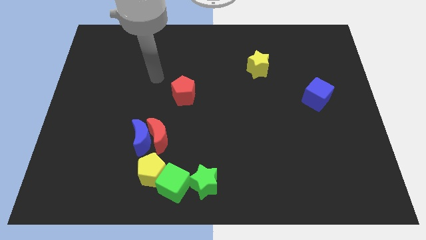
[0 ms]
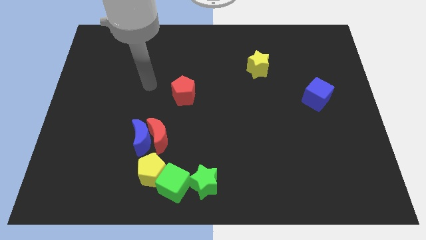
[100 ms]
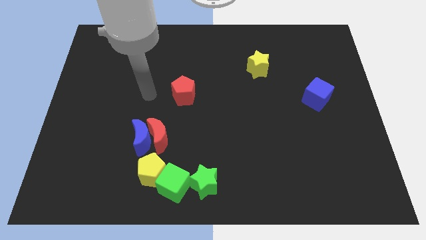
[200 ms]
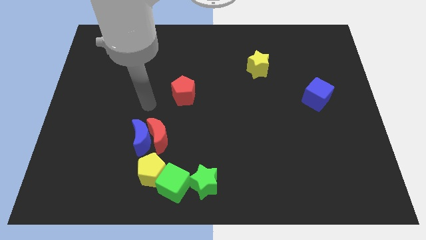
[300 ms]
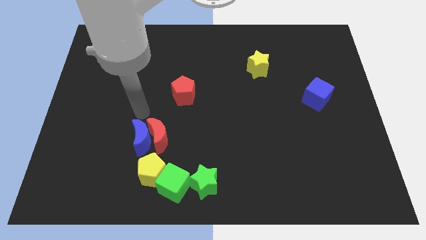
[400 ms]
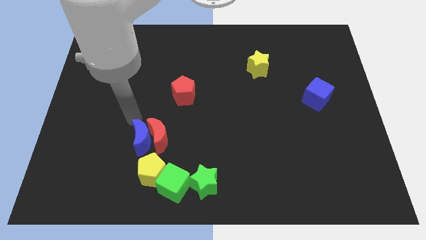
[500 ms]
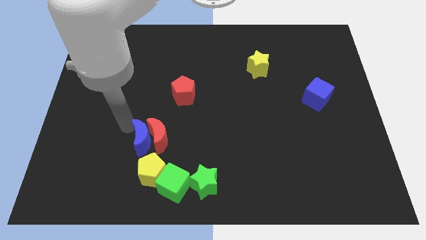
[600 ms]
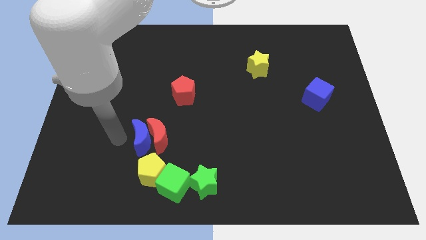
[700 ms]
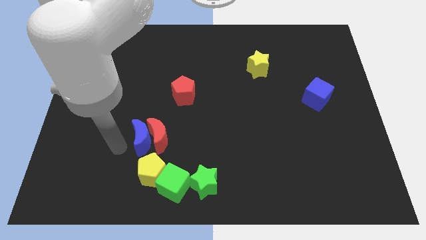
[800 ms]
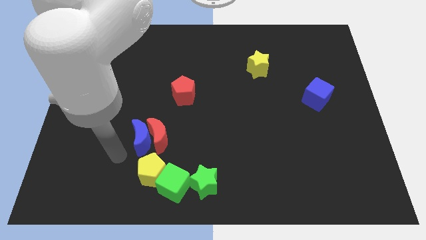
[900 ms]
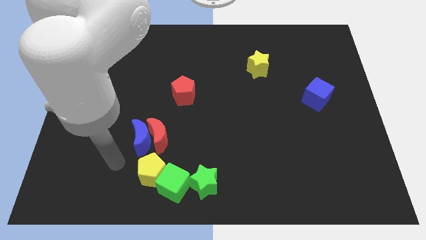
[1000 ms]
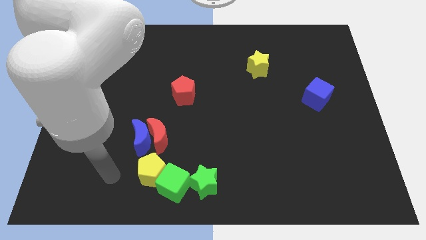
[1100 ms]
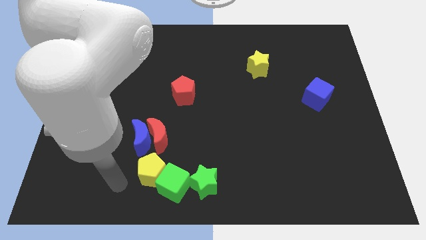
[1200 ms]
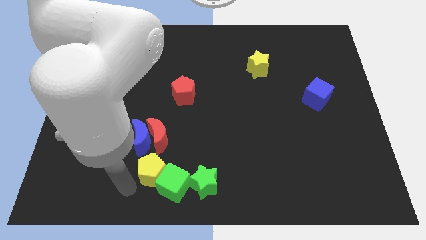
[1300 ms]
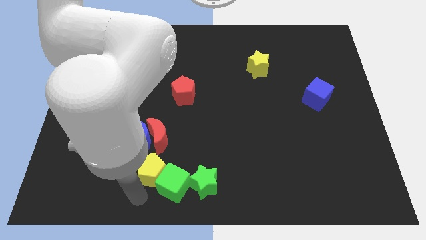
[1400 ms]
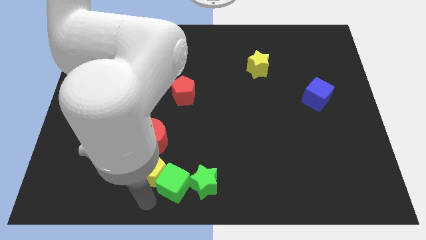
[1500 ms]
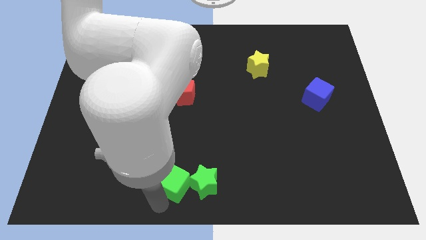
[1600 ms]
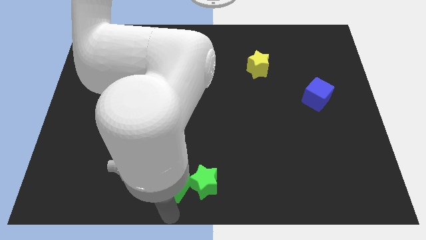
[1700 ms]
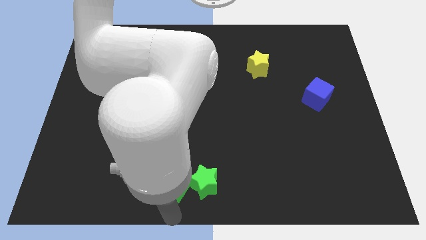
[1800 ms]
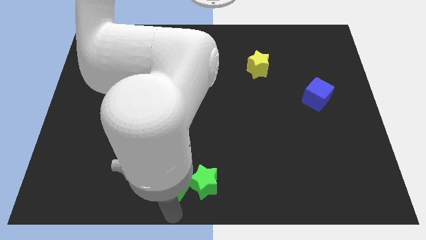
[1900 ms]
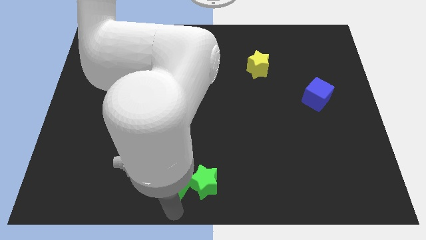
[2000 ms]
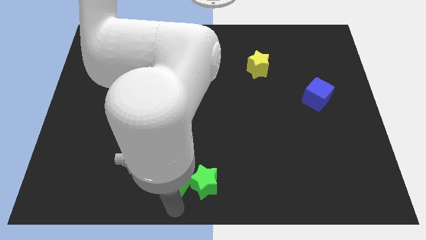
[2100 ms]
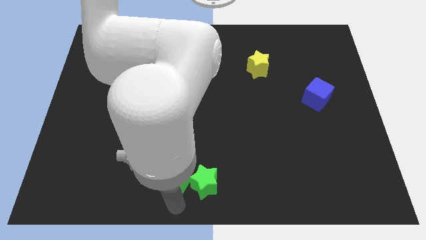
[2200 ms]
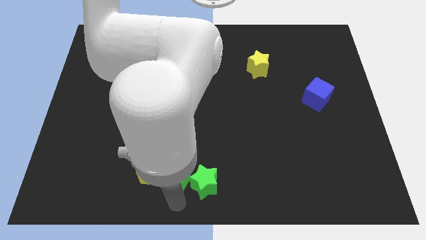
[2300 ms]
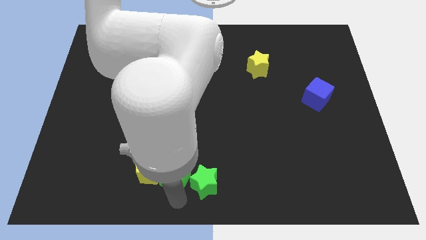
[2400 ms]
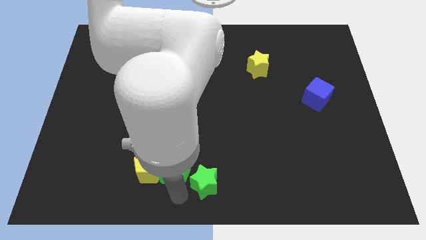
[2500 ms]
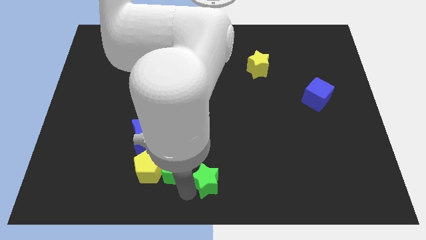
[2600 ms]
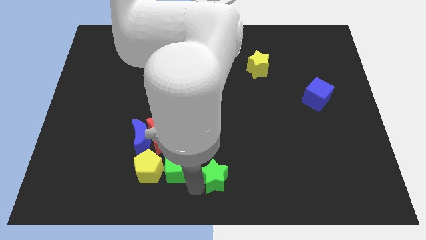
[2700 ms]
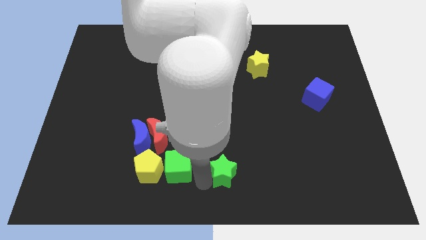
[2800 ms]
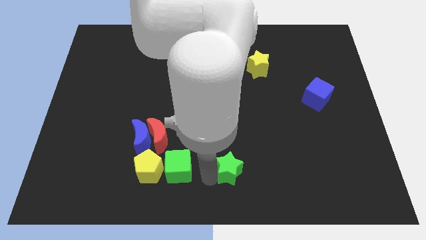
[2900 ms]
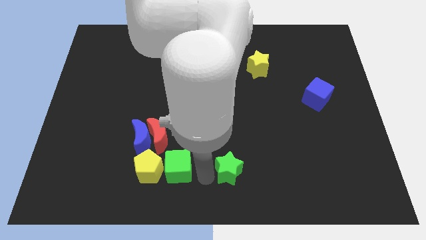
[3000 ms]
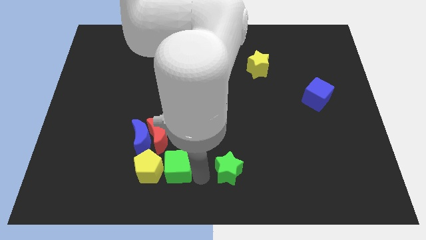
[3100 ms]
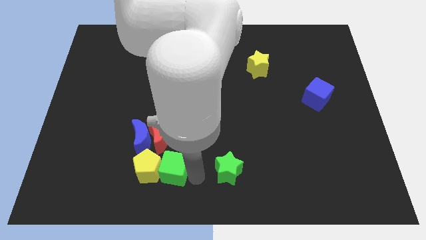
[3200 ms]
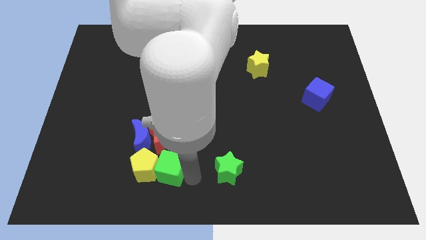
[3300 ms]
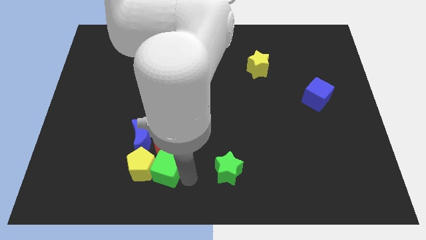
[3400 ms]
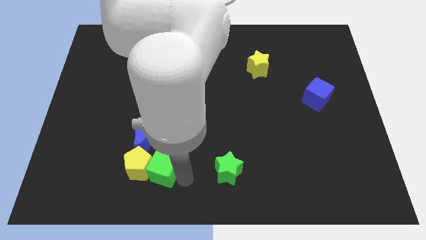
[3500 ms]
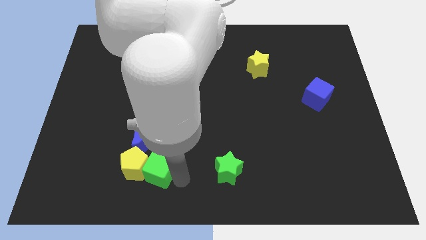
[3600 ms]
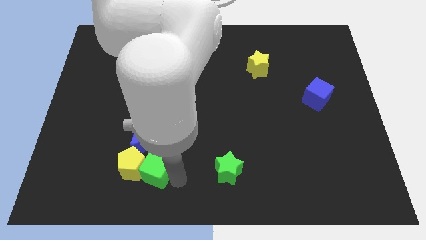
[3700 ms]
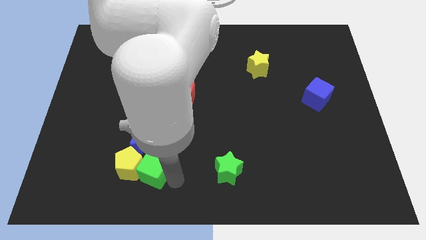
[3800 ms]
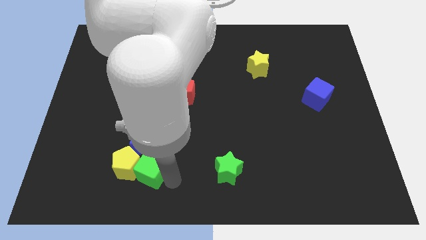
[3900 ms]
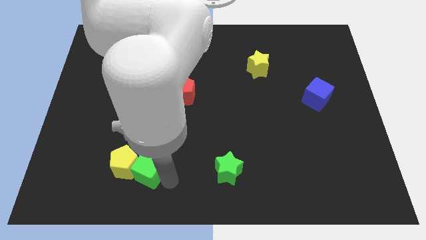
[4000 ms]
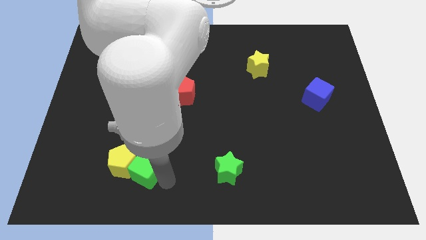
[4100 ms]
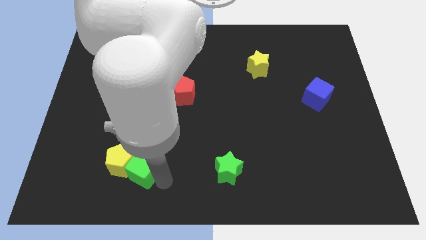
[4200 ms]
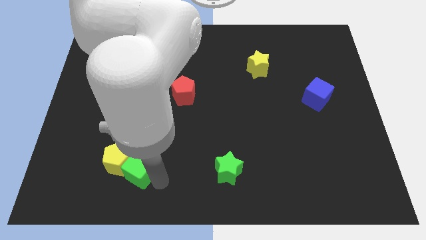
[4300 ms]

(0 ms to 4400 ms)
slightly push the green cube up and left diagonally

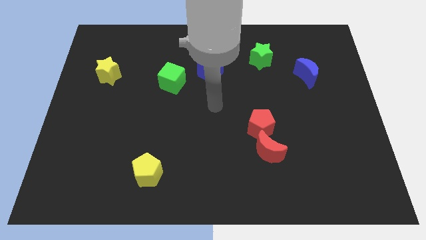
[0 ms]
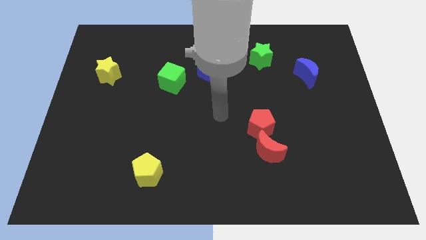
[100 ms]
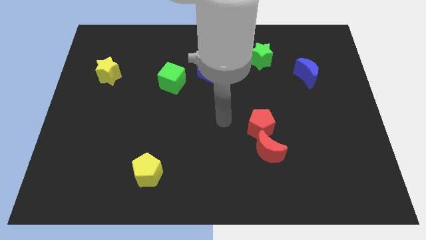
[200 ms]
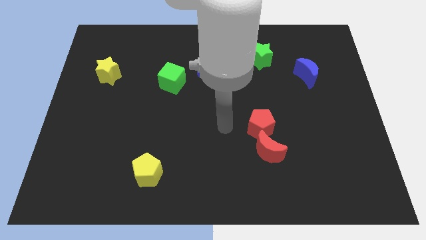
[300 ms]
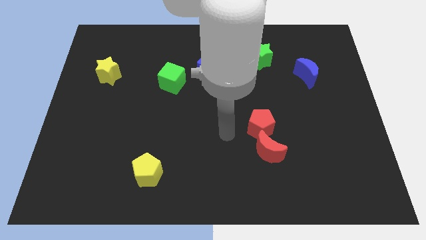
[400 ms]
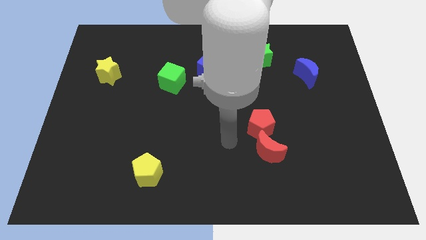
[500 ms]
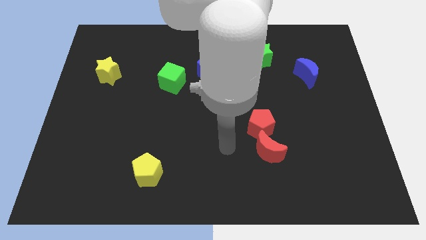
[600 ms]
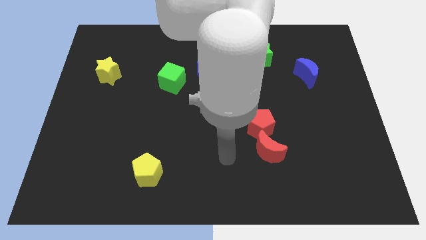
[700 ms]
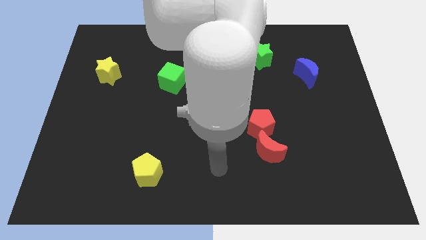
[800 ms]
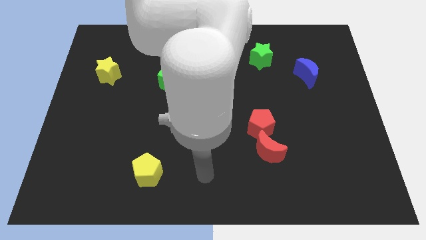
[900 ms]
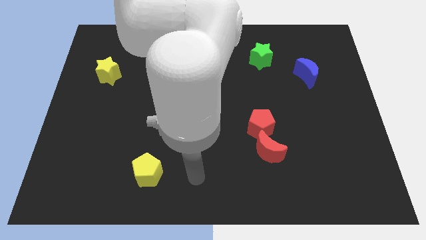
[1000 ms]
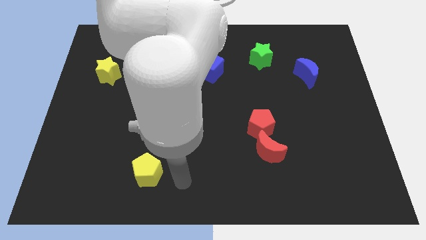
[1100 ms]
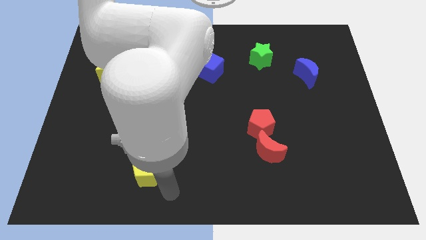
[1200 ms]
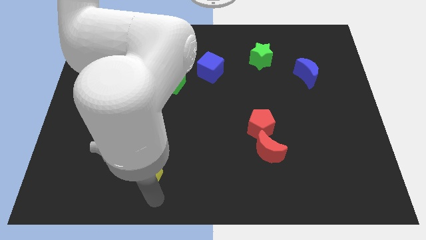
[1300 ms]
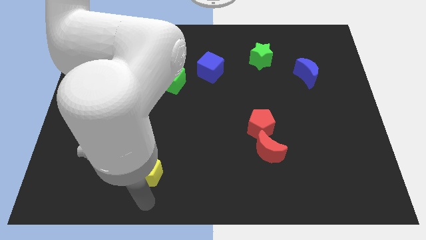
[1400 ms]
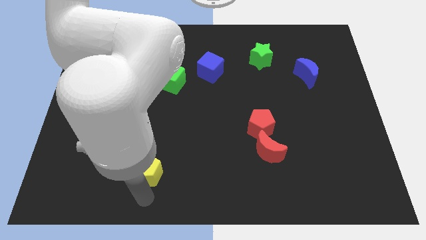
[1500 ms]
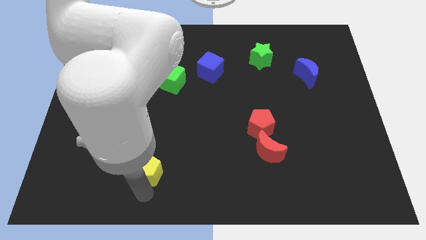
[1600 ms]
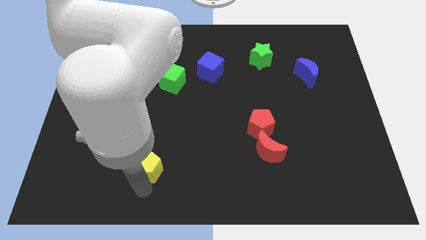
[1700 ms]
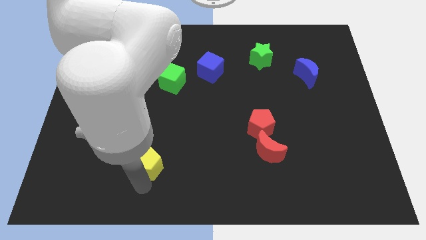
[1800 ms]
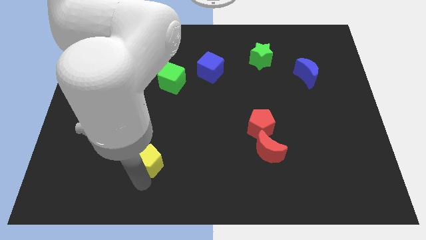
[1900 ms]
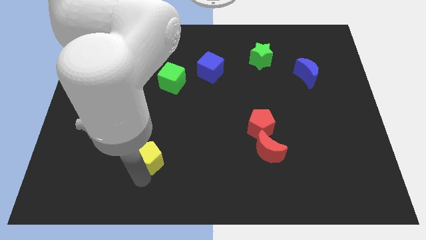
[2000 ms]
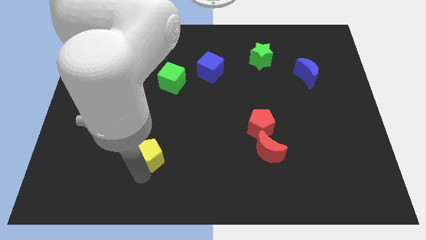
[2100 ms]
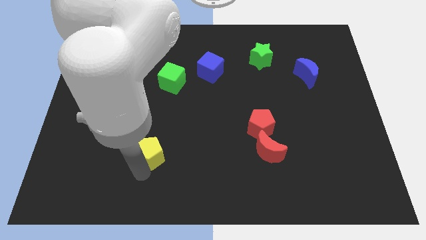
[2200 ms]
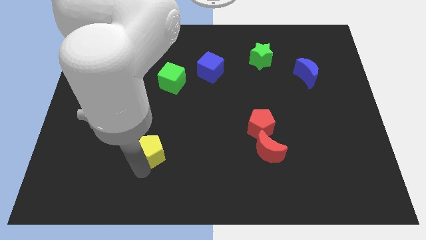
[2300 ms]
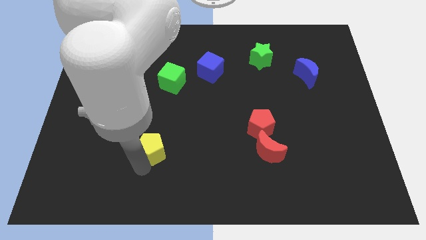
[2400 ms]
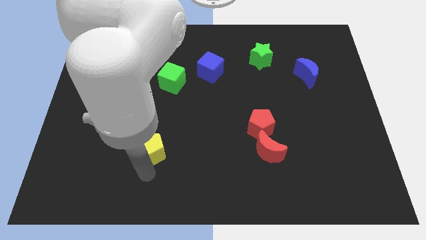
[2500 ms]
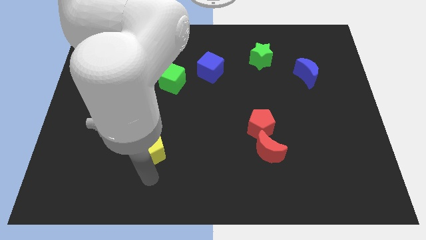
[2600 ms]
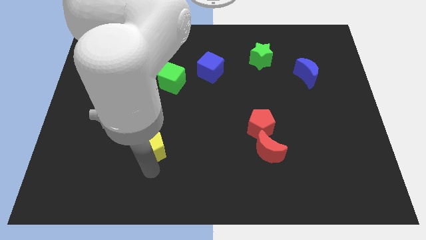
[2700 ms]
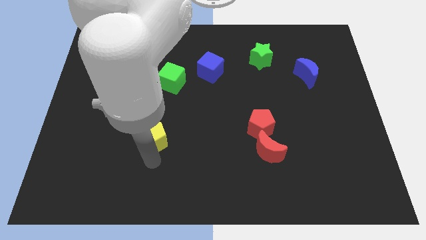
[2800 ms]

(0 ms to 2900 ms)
slide the yellow pentagon upwards slightly
